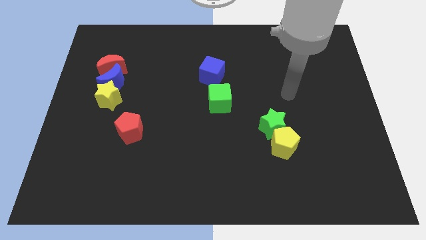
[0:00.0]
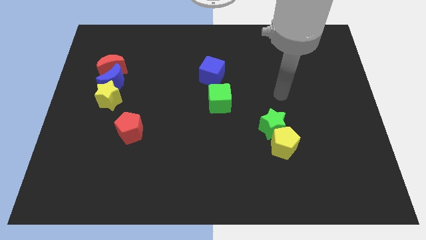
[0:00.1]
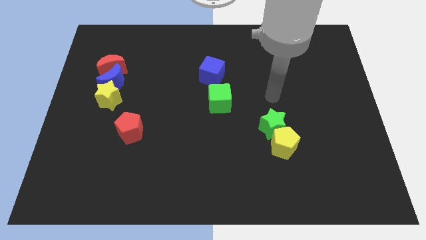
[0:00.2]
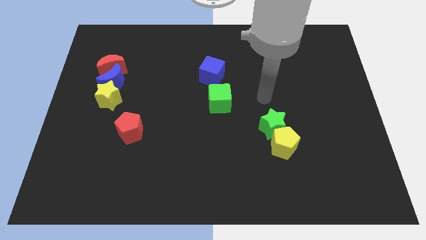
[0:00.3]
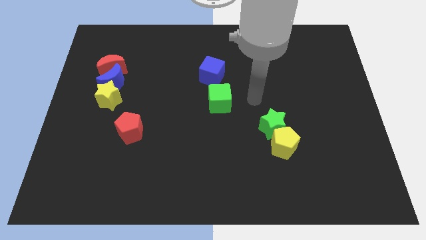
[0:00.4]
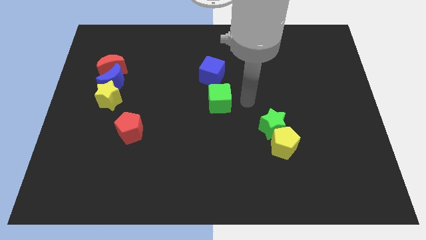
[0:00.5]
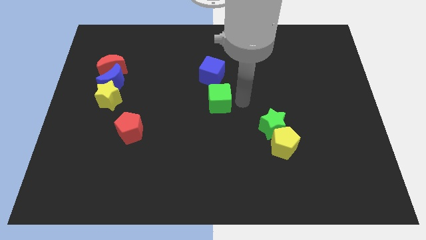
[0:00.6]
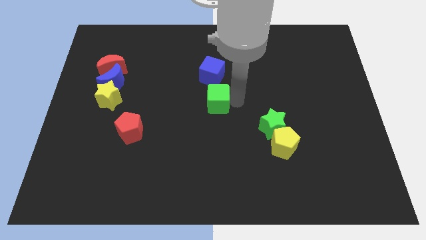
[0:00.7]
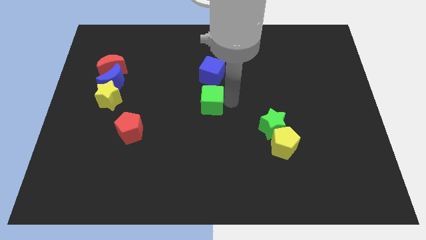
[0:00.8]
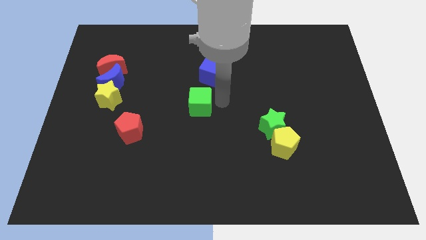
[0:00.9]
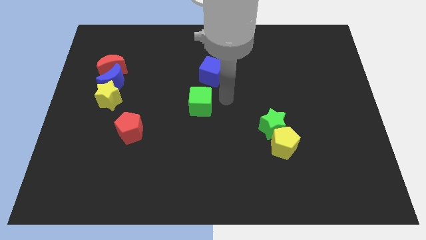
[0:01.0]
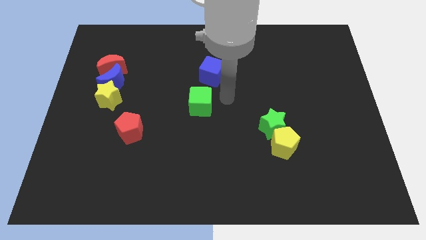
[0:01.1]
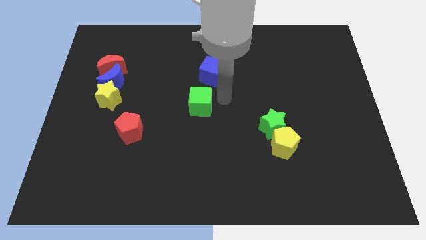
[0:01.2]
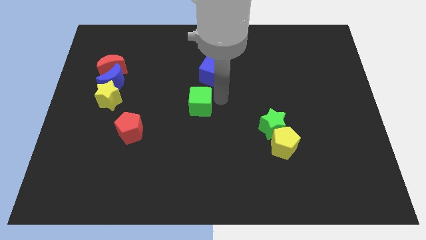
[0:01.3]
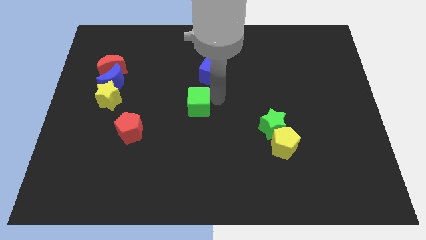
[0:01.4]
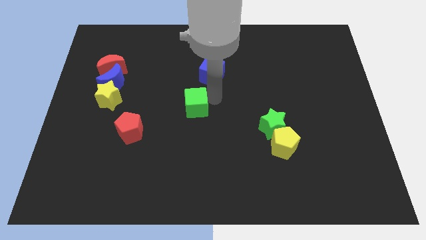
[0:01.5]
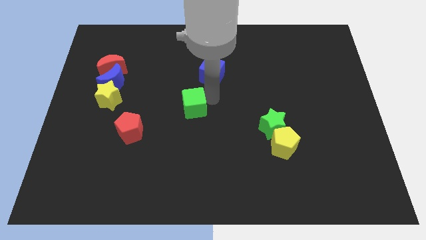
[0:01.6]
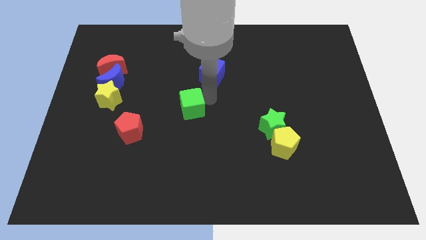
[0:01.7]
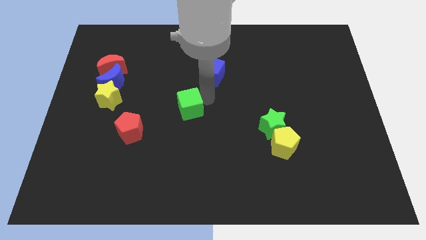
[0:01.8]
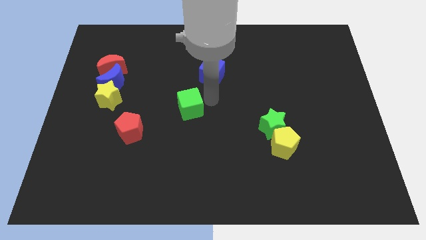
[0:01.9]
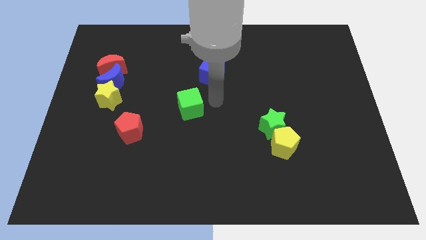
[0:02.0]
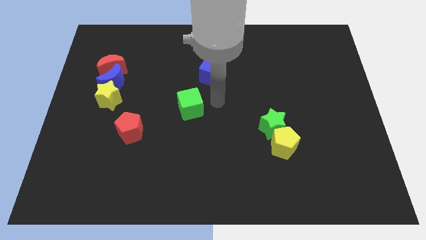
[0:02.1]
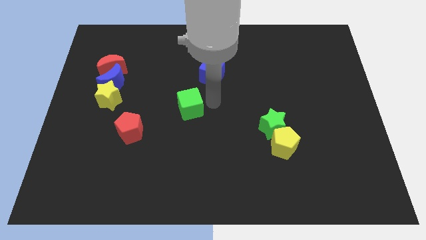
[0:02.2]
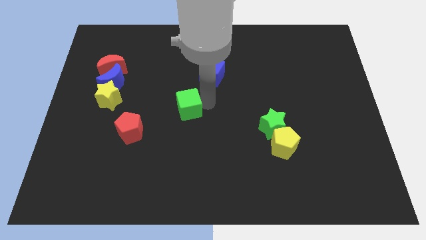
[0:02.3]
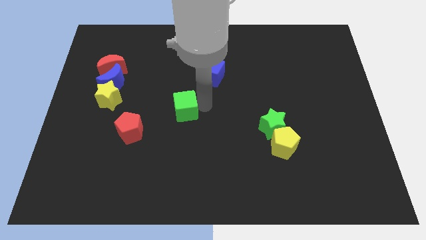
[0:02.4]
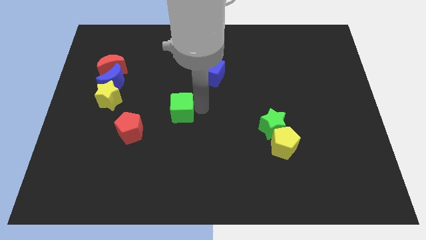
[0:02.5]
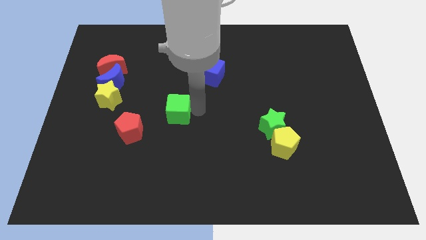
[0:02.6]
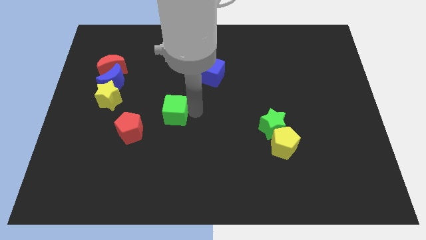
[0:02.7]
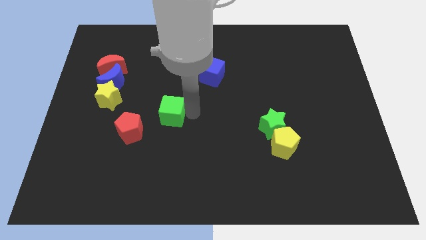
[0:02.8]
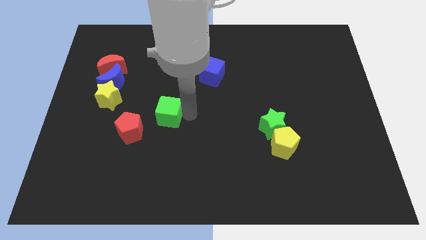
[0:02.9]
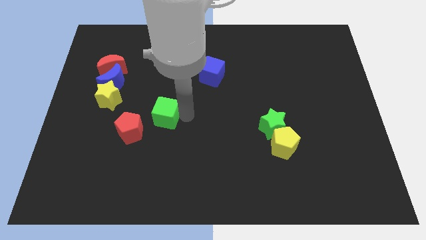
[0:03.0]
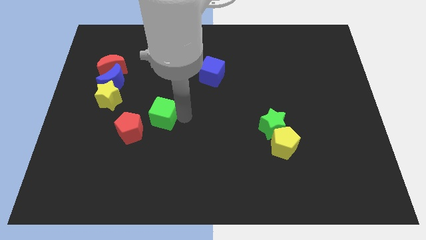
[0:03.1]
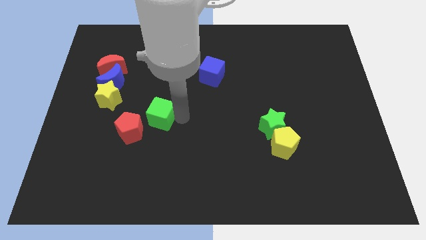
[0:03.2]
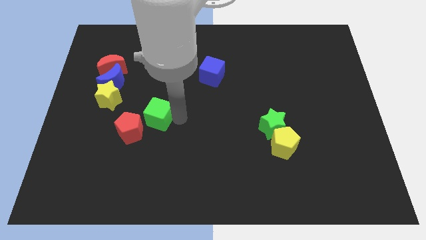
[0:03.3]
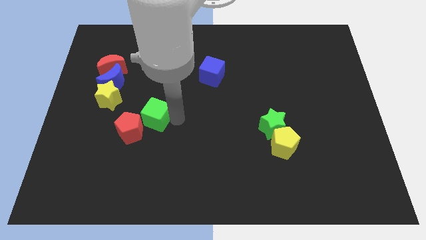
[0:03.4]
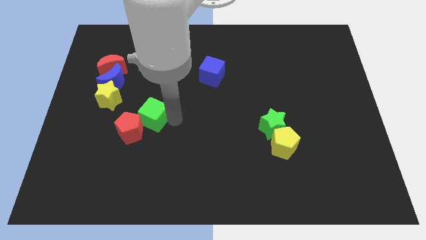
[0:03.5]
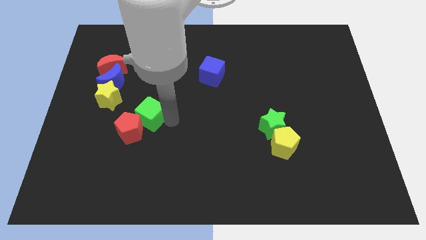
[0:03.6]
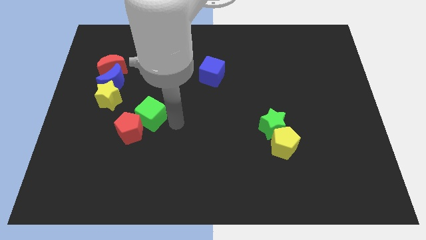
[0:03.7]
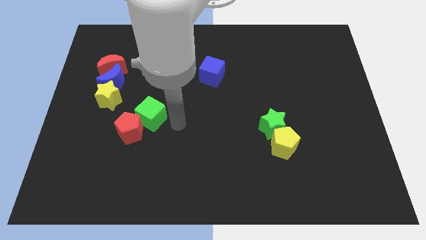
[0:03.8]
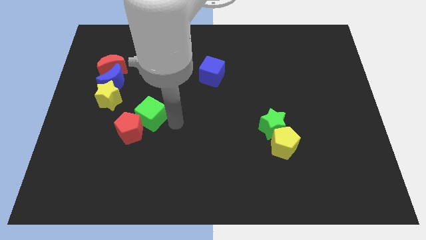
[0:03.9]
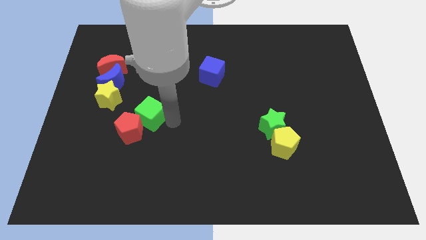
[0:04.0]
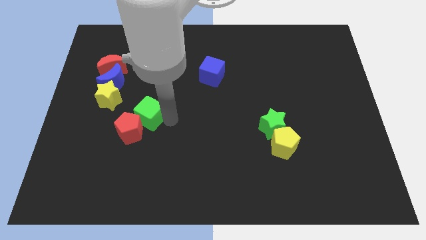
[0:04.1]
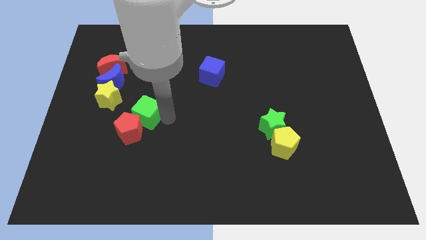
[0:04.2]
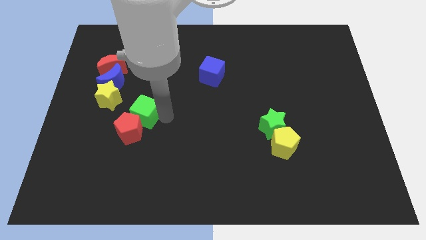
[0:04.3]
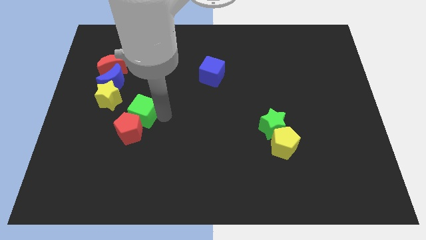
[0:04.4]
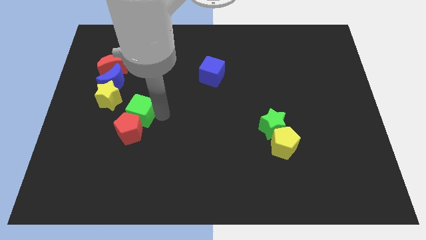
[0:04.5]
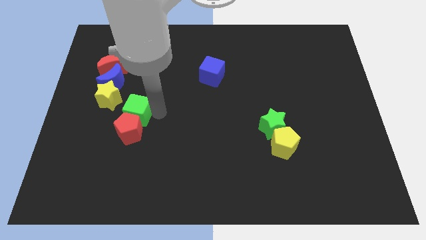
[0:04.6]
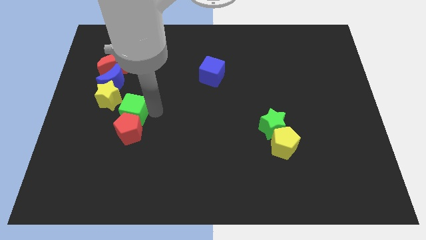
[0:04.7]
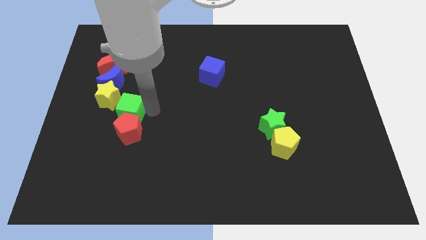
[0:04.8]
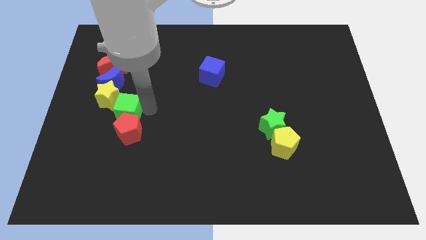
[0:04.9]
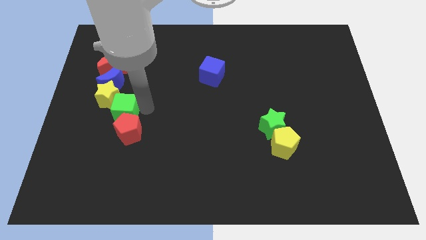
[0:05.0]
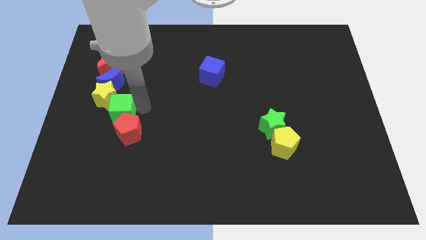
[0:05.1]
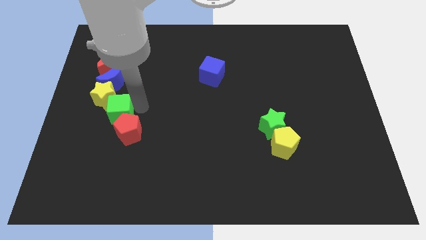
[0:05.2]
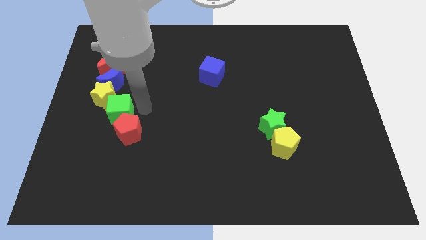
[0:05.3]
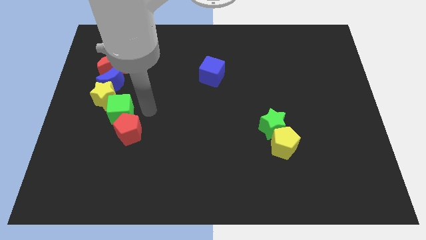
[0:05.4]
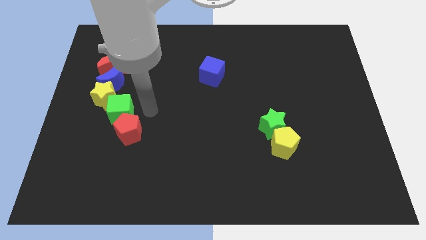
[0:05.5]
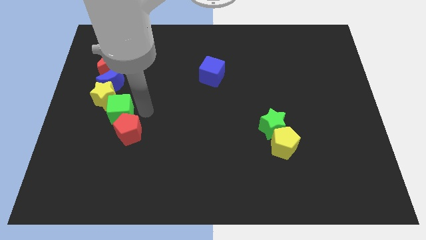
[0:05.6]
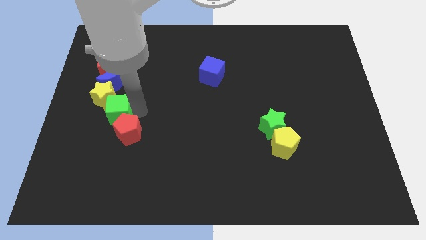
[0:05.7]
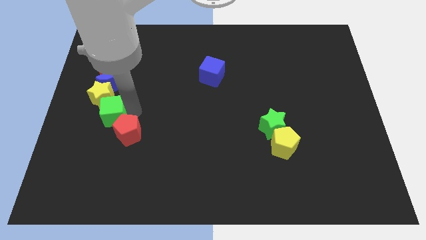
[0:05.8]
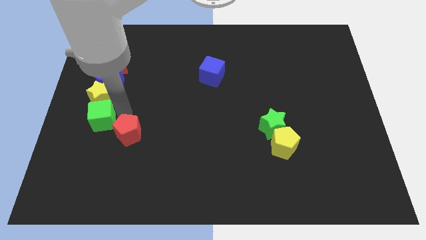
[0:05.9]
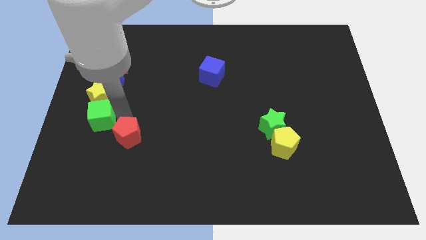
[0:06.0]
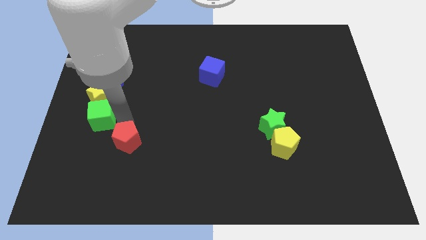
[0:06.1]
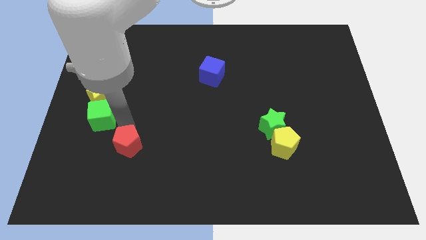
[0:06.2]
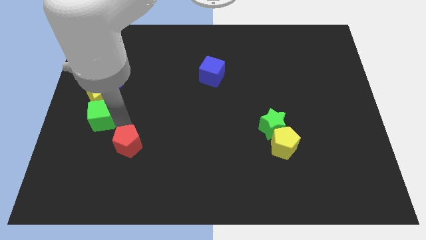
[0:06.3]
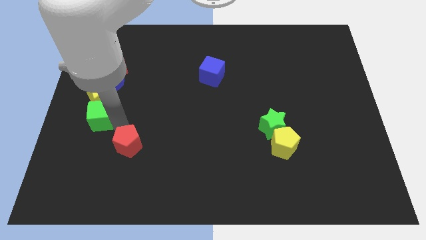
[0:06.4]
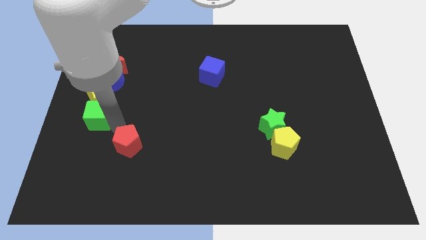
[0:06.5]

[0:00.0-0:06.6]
move the green cube to the left side of the board
